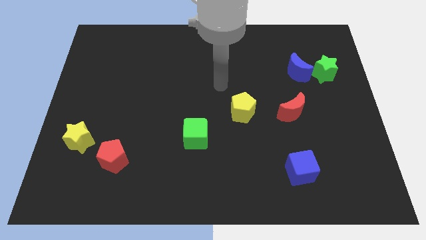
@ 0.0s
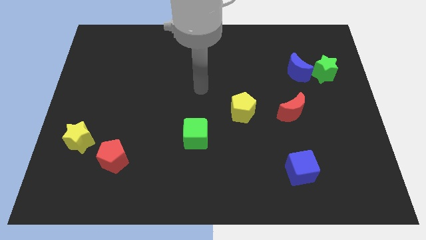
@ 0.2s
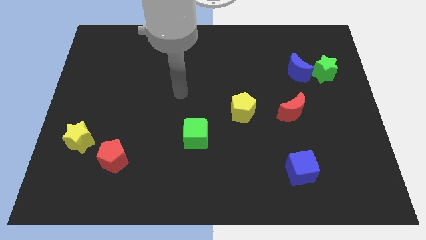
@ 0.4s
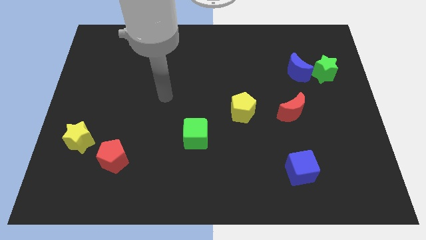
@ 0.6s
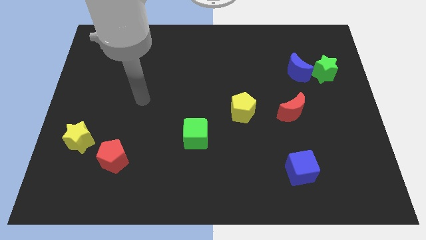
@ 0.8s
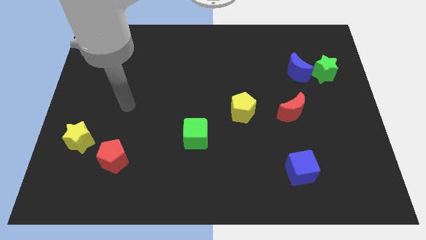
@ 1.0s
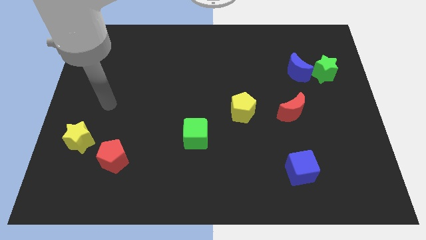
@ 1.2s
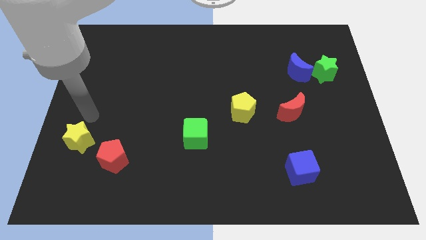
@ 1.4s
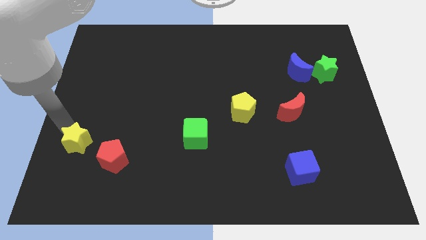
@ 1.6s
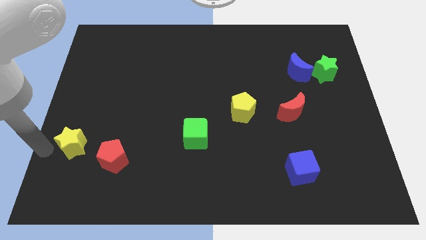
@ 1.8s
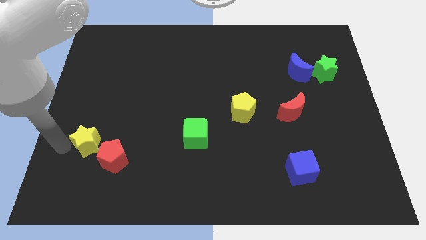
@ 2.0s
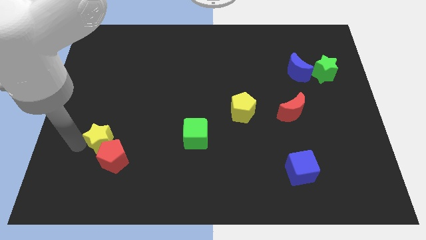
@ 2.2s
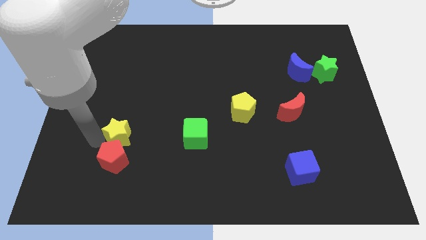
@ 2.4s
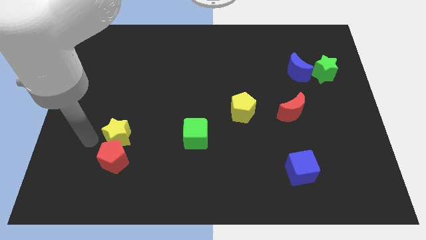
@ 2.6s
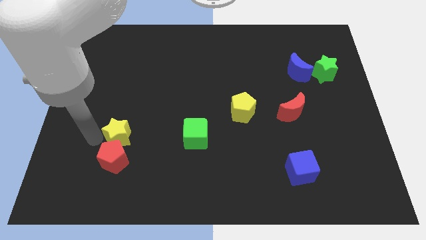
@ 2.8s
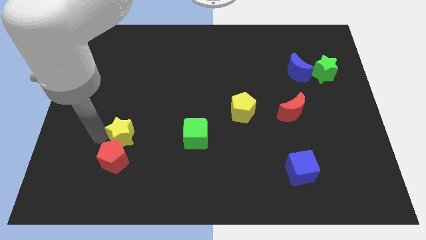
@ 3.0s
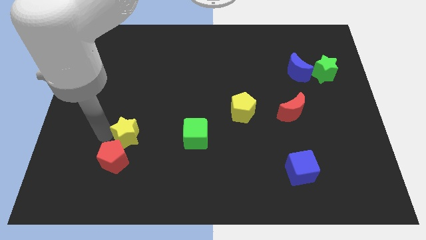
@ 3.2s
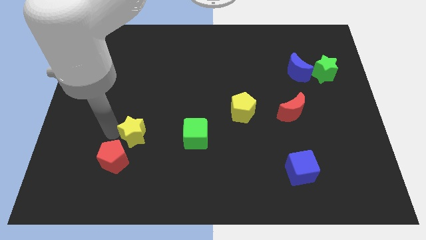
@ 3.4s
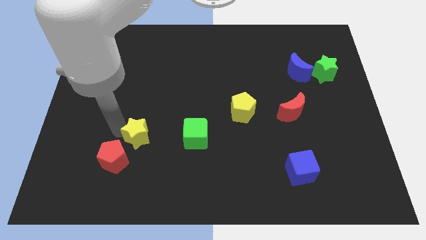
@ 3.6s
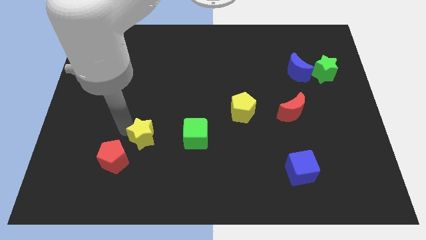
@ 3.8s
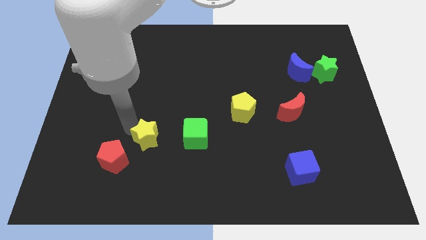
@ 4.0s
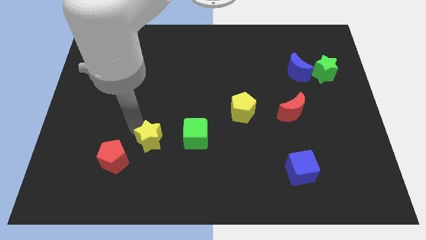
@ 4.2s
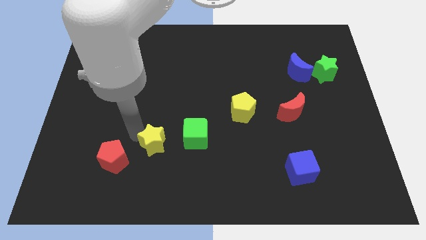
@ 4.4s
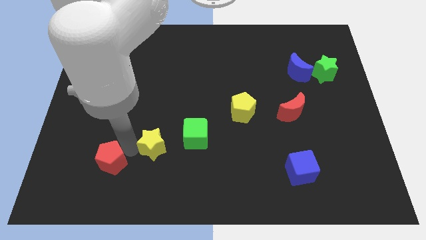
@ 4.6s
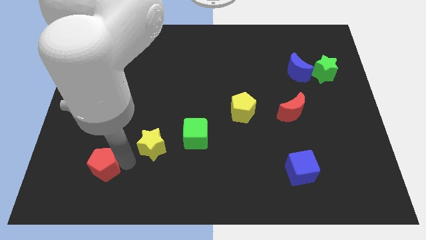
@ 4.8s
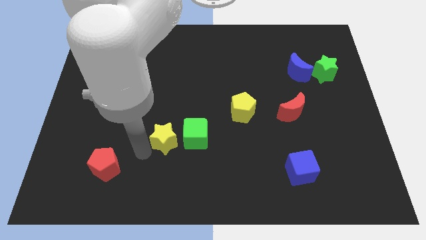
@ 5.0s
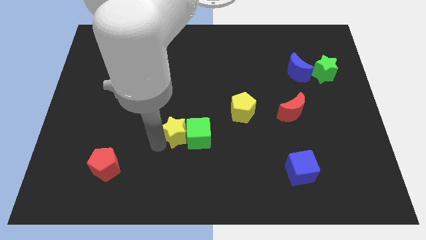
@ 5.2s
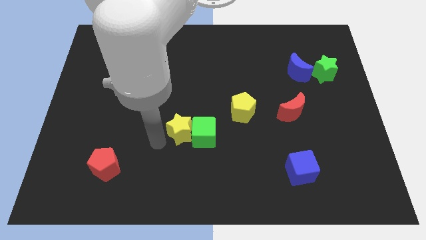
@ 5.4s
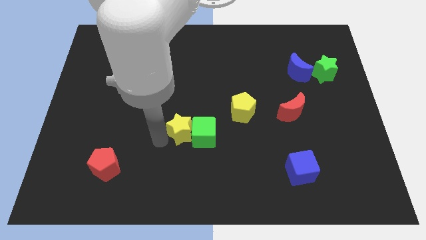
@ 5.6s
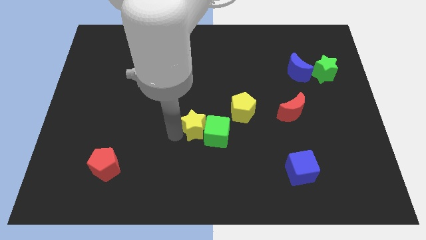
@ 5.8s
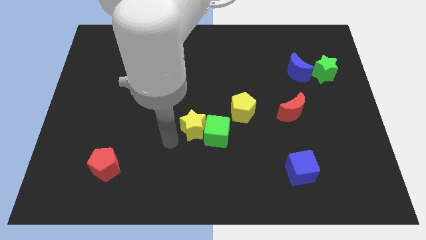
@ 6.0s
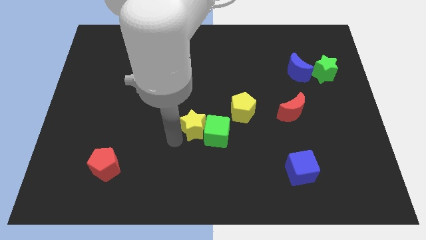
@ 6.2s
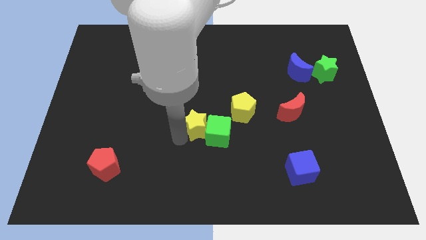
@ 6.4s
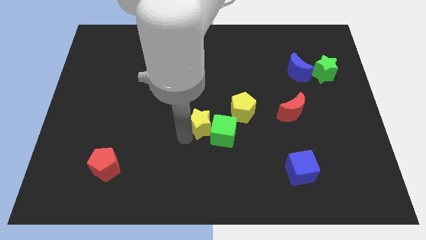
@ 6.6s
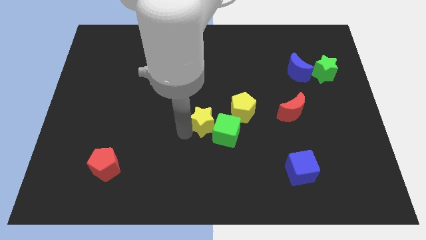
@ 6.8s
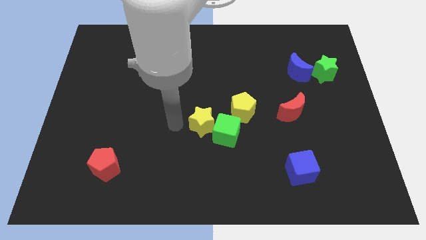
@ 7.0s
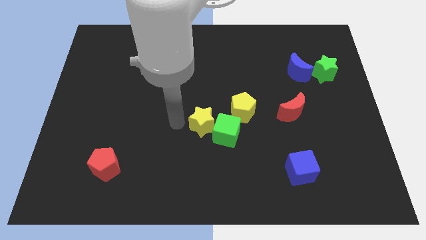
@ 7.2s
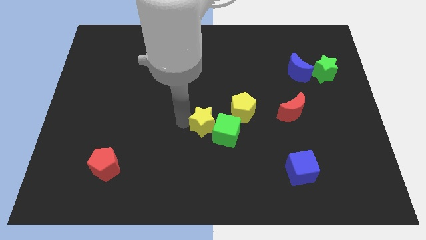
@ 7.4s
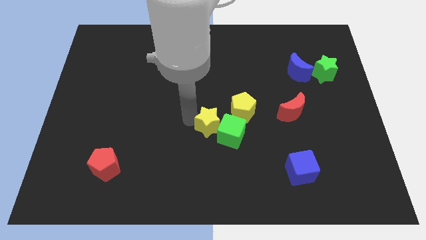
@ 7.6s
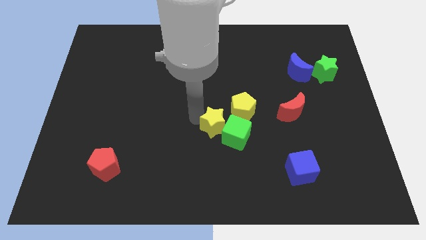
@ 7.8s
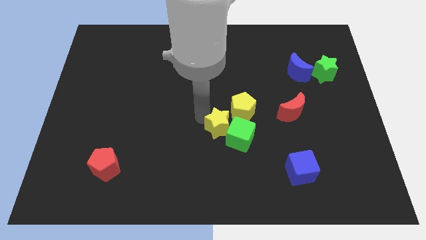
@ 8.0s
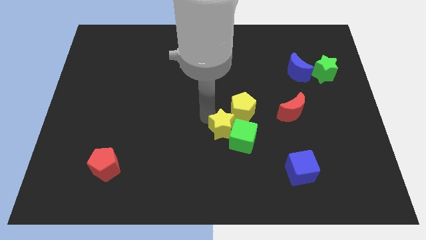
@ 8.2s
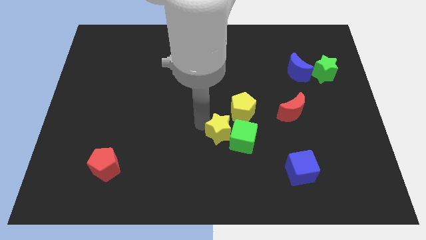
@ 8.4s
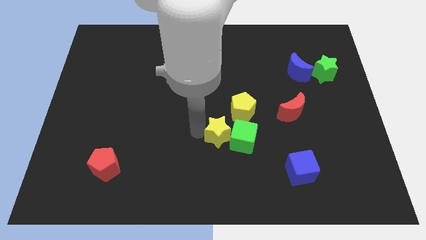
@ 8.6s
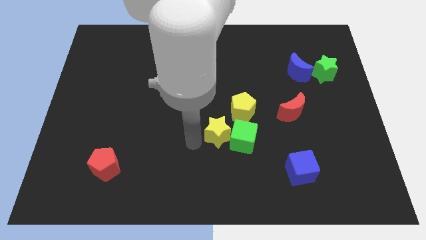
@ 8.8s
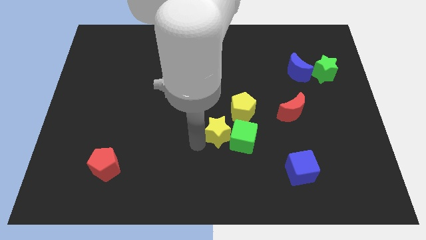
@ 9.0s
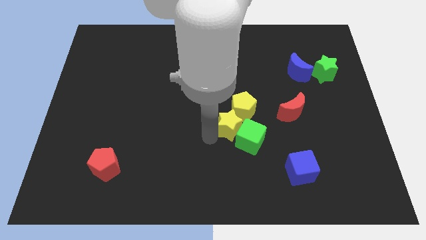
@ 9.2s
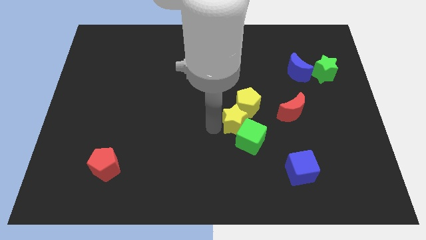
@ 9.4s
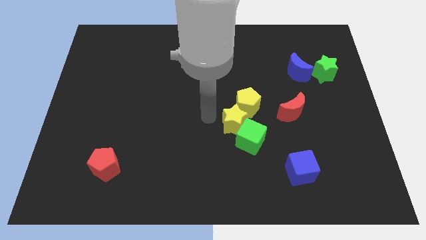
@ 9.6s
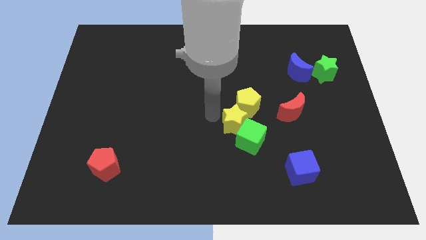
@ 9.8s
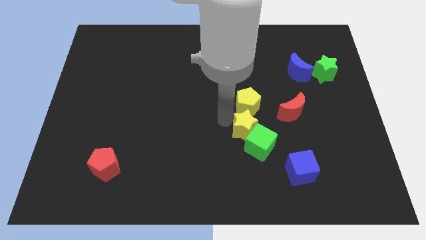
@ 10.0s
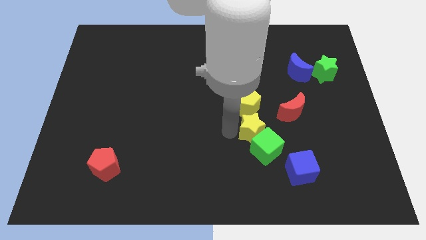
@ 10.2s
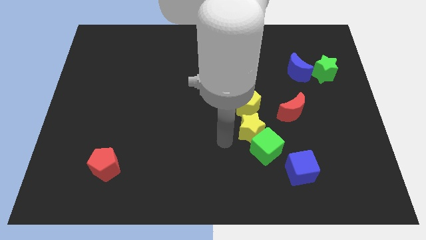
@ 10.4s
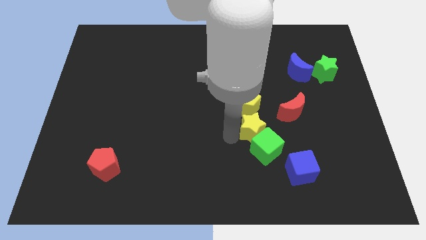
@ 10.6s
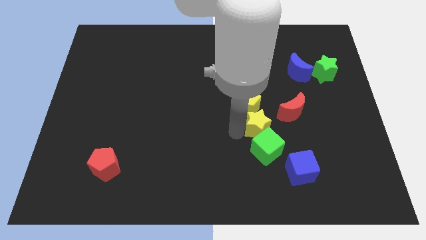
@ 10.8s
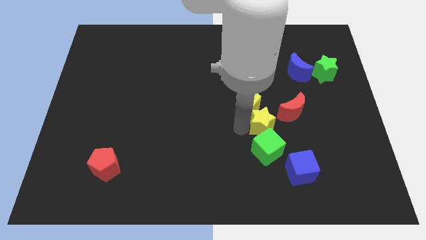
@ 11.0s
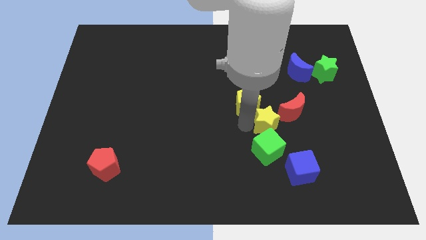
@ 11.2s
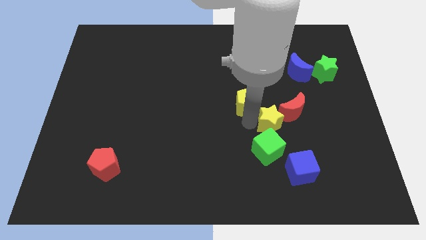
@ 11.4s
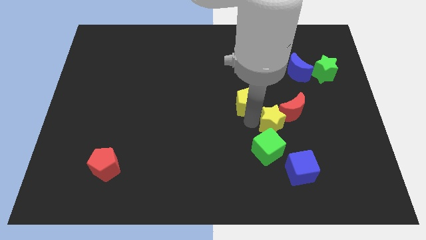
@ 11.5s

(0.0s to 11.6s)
move the yellow star towards the red moon

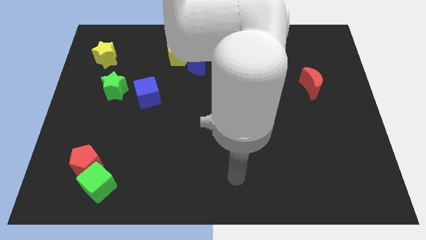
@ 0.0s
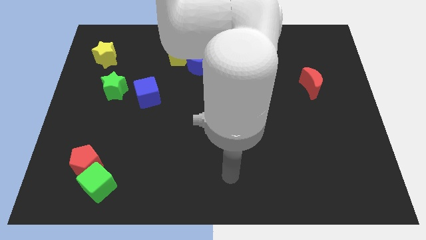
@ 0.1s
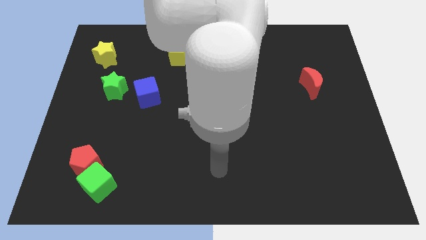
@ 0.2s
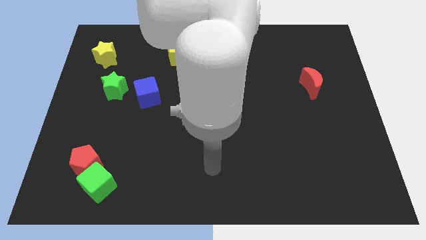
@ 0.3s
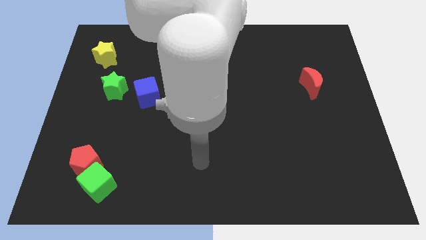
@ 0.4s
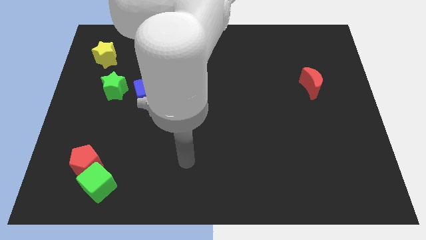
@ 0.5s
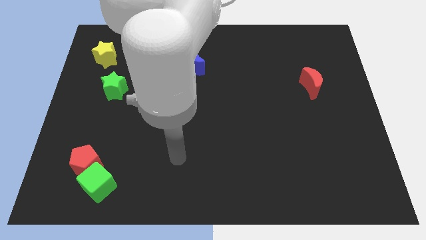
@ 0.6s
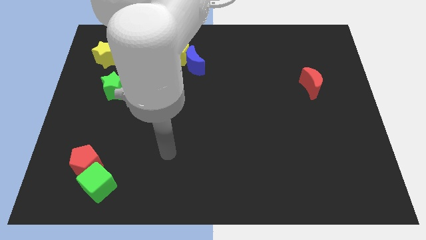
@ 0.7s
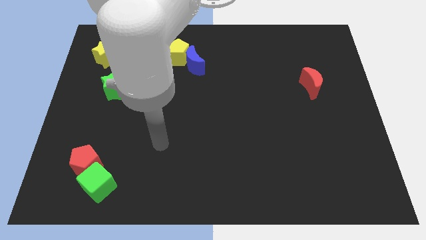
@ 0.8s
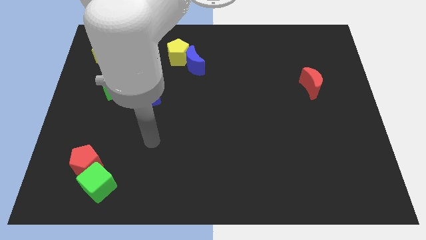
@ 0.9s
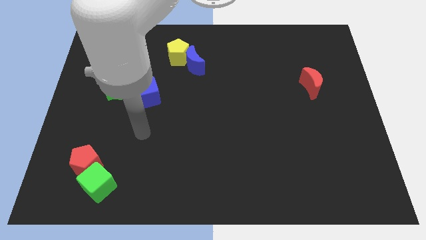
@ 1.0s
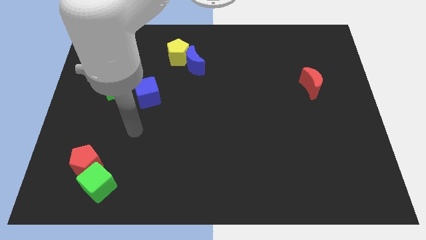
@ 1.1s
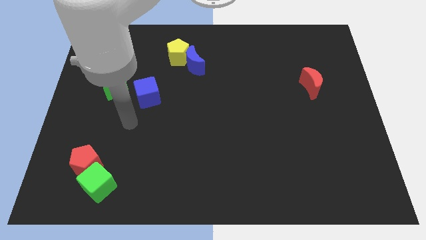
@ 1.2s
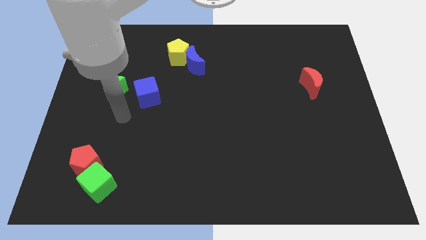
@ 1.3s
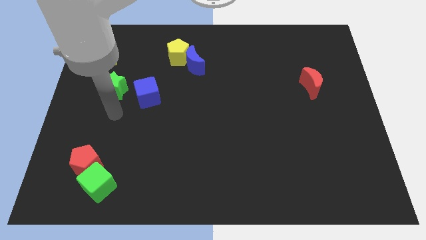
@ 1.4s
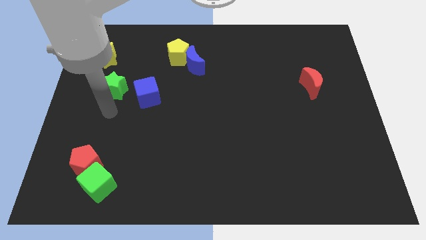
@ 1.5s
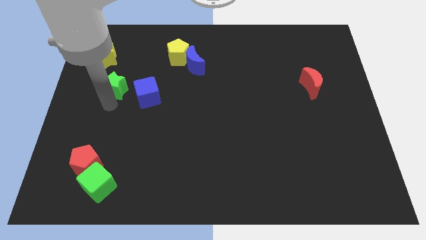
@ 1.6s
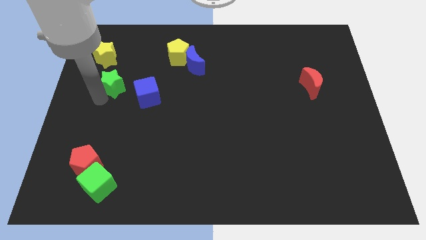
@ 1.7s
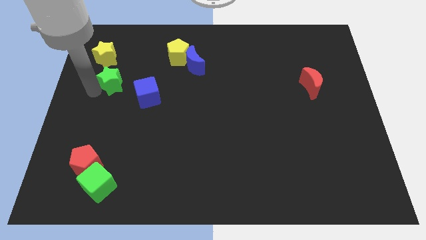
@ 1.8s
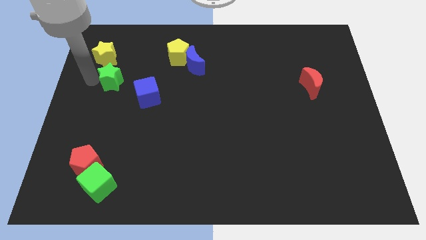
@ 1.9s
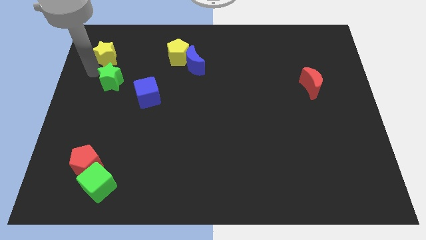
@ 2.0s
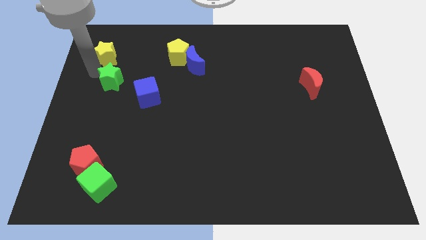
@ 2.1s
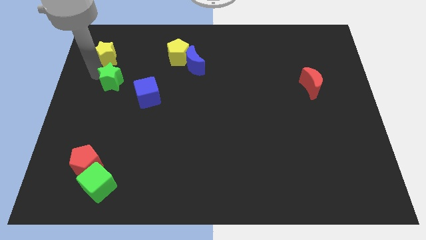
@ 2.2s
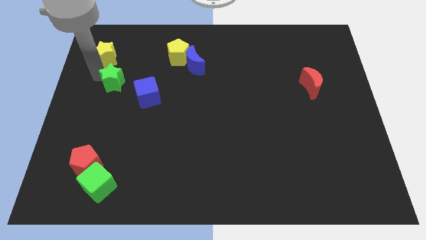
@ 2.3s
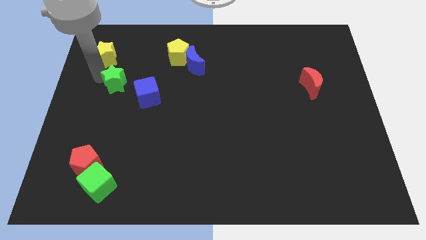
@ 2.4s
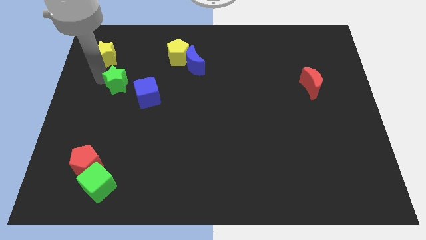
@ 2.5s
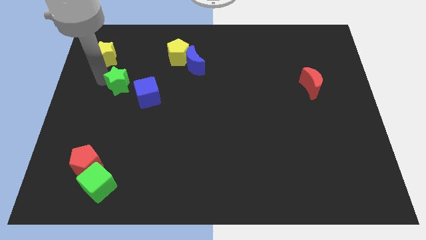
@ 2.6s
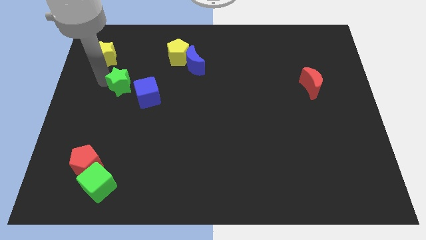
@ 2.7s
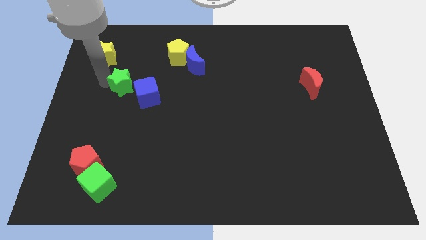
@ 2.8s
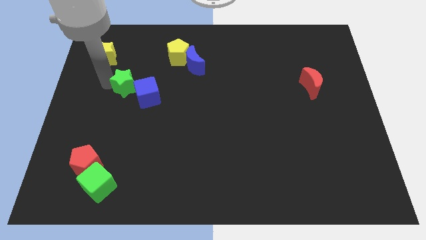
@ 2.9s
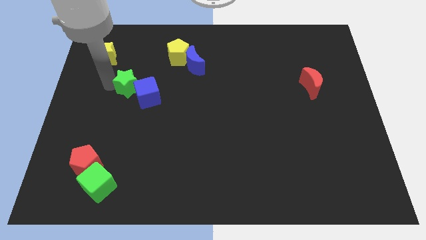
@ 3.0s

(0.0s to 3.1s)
slide the green star to the blue cube
